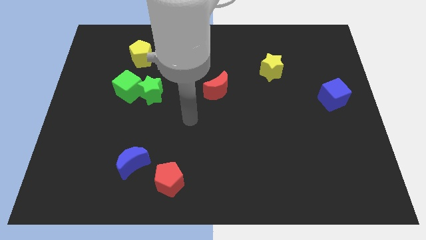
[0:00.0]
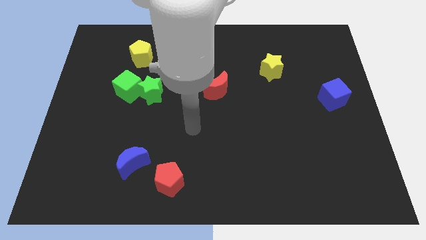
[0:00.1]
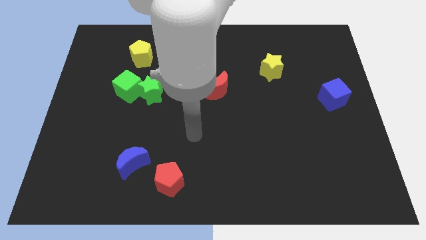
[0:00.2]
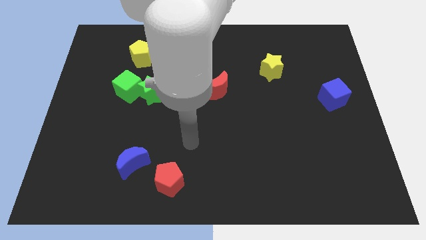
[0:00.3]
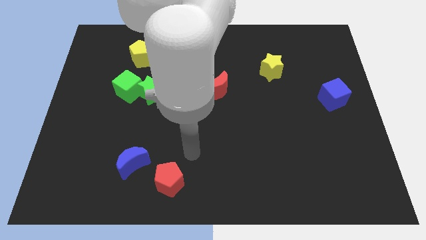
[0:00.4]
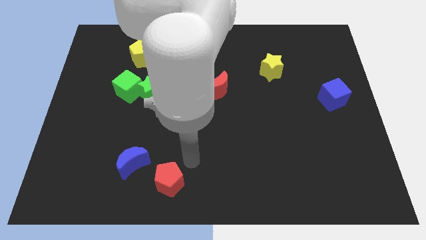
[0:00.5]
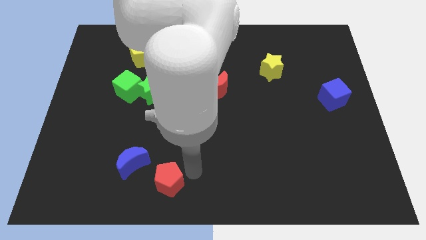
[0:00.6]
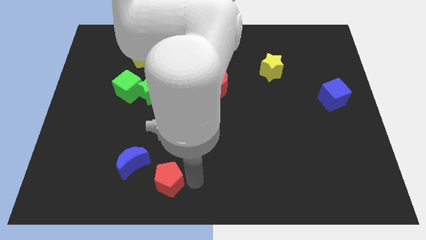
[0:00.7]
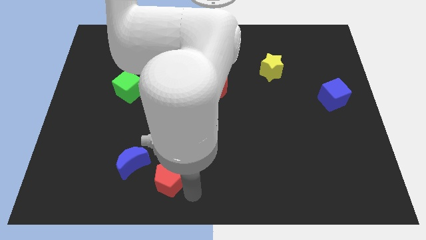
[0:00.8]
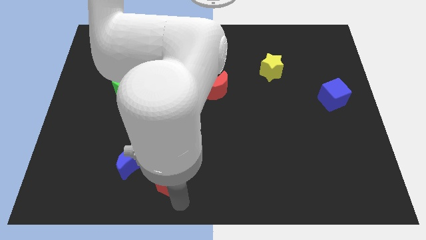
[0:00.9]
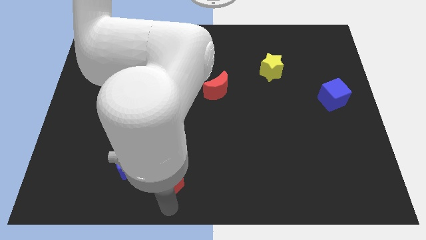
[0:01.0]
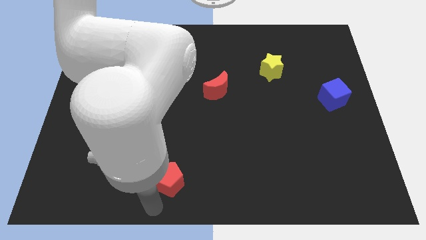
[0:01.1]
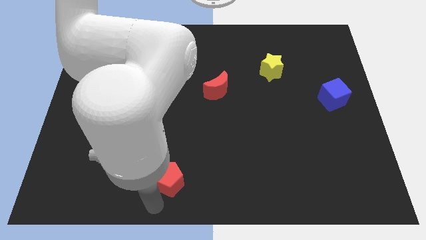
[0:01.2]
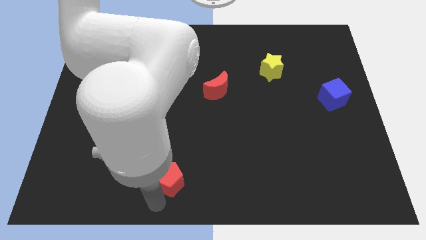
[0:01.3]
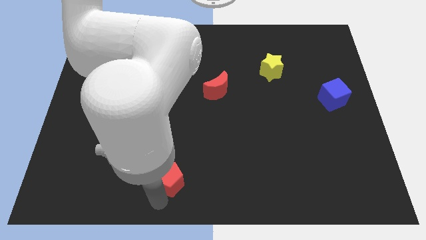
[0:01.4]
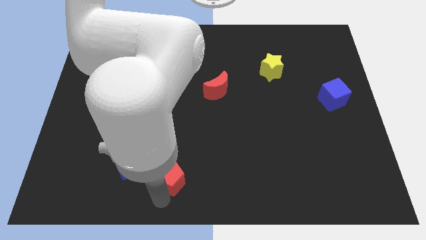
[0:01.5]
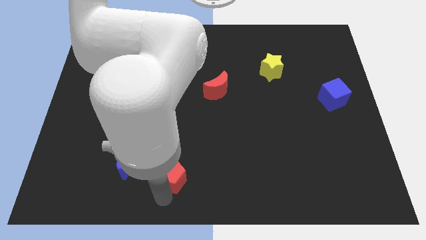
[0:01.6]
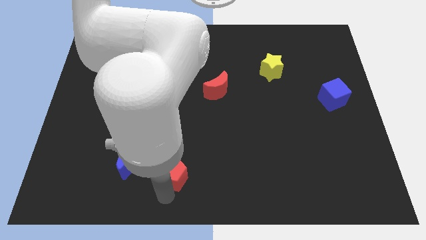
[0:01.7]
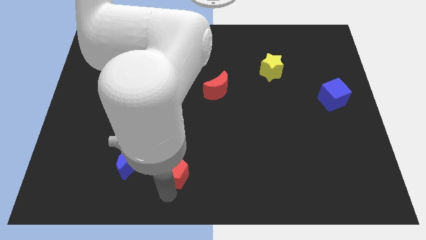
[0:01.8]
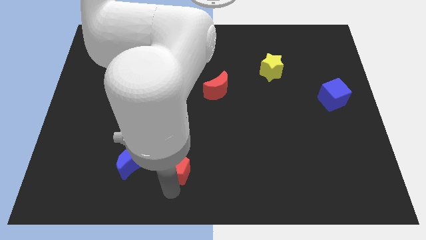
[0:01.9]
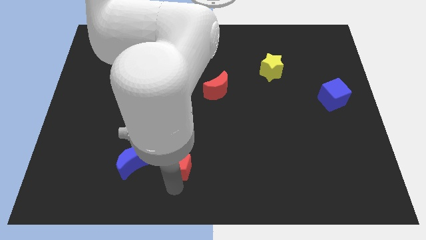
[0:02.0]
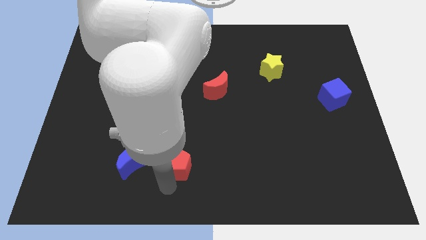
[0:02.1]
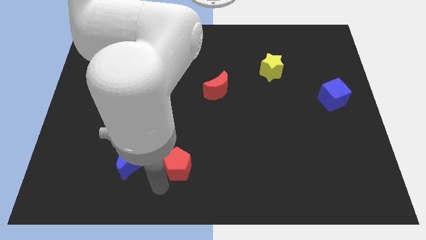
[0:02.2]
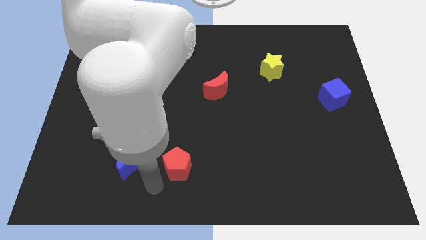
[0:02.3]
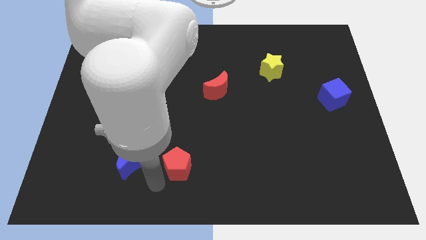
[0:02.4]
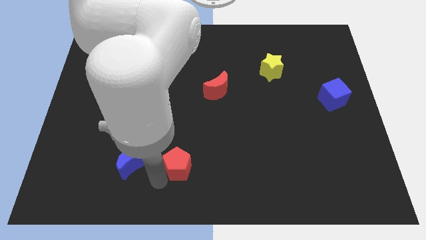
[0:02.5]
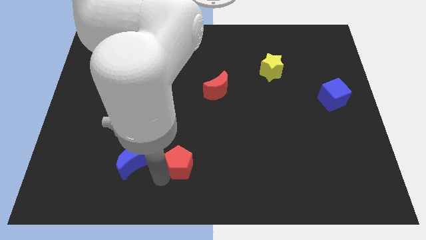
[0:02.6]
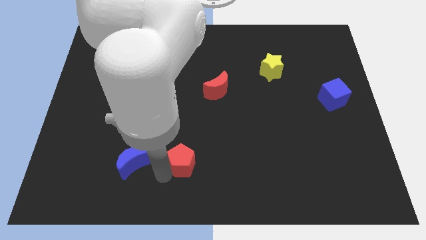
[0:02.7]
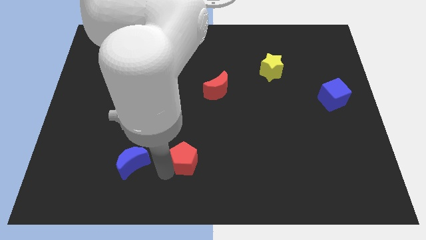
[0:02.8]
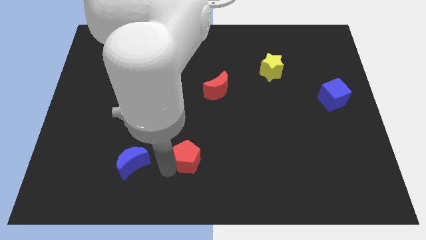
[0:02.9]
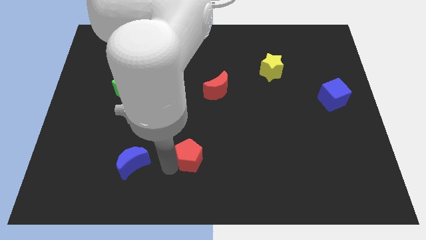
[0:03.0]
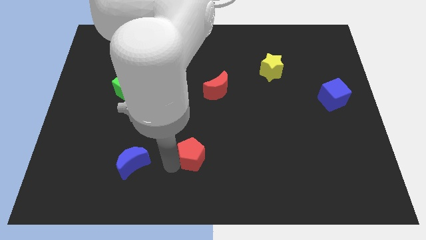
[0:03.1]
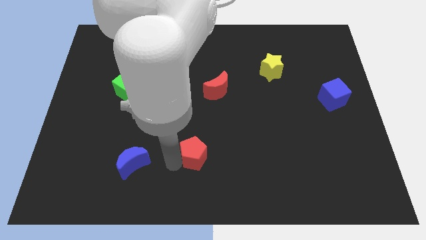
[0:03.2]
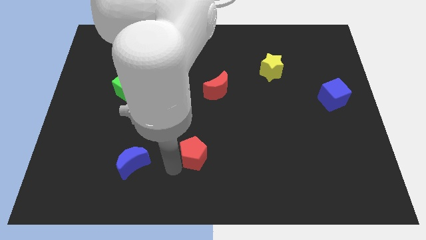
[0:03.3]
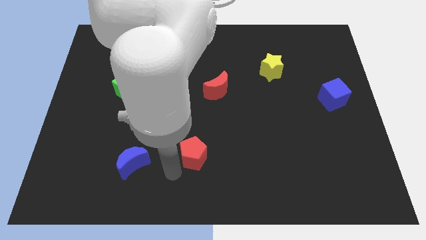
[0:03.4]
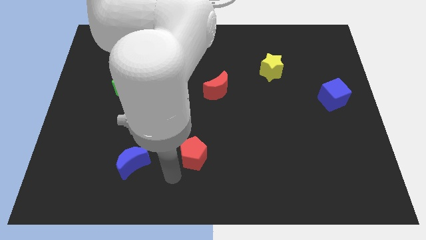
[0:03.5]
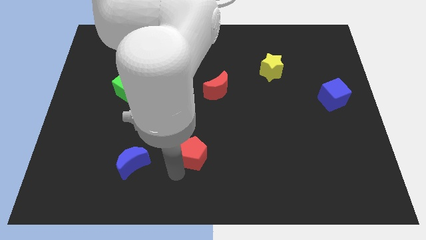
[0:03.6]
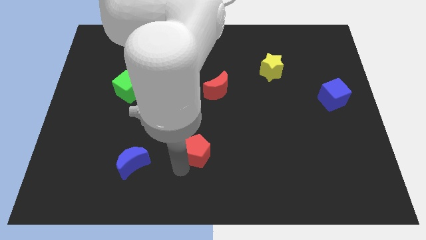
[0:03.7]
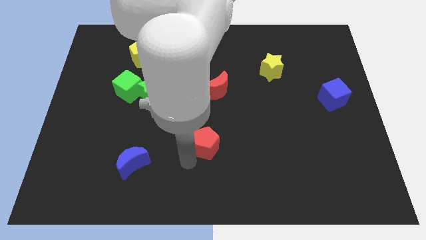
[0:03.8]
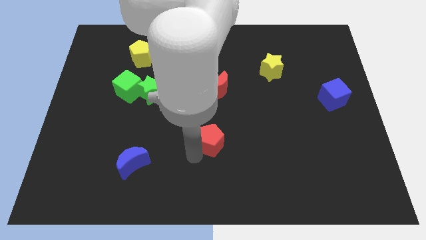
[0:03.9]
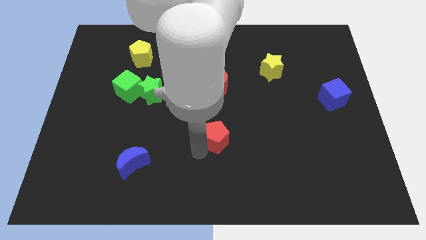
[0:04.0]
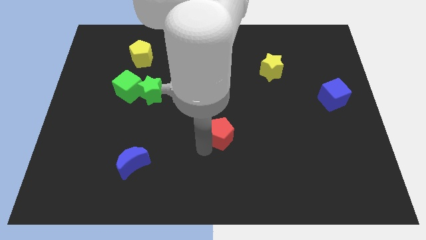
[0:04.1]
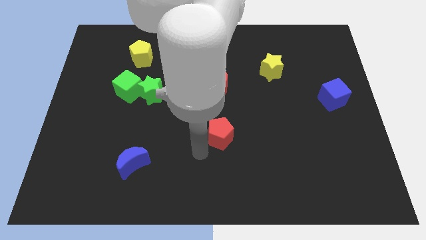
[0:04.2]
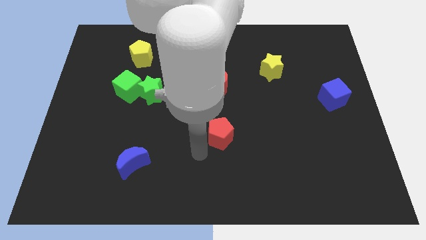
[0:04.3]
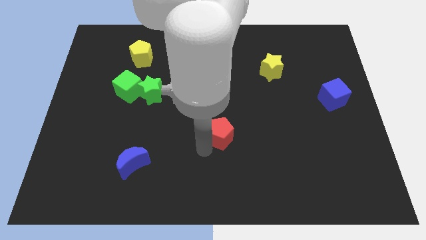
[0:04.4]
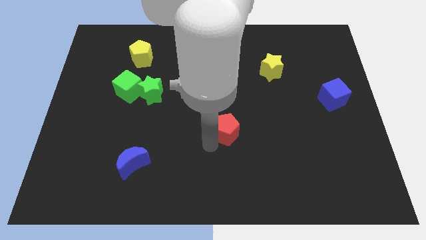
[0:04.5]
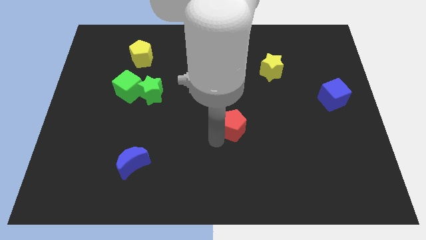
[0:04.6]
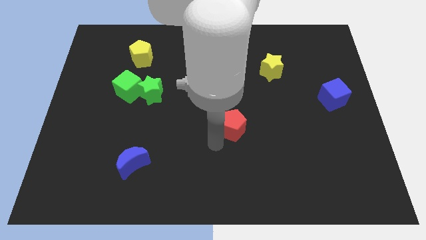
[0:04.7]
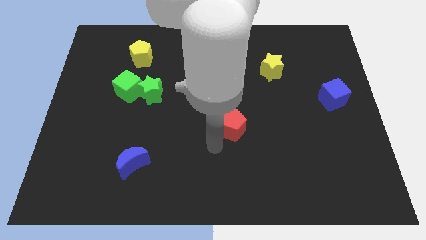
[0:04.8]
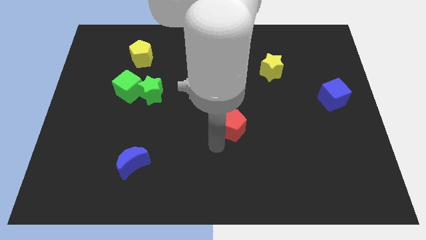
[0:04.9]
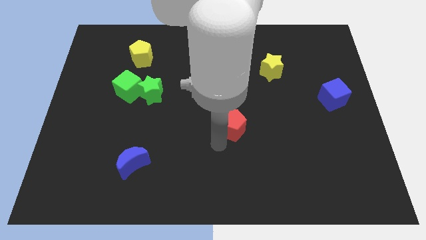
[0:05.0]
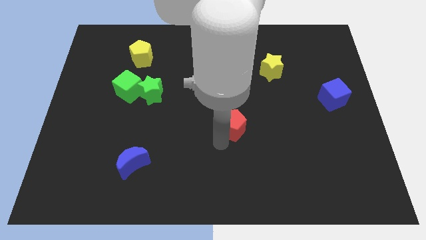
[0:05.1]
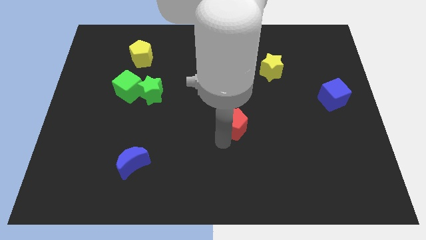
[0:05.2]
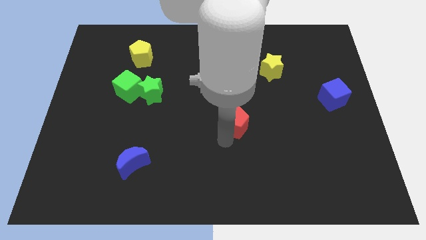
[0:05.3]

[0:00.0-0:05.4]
push the red pentagon upwards and then right

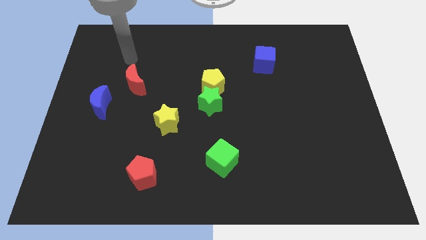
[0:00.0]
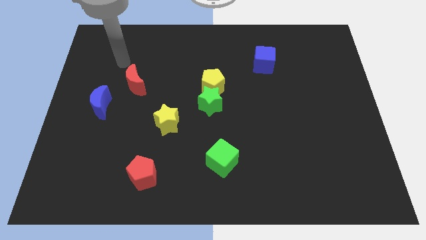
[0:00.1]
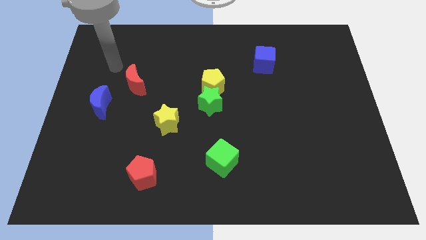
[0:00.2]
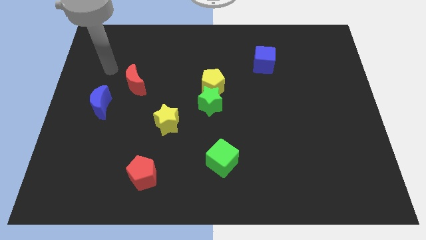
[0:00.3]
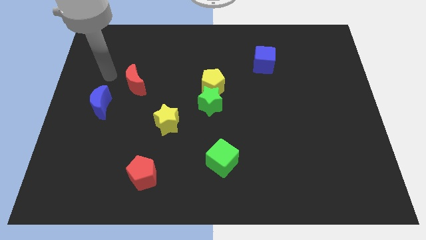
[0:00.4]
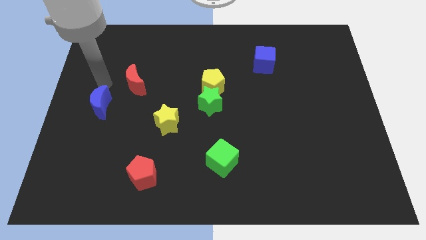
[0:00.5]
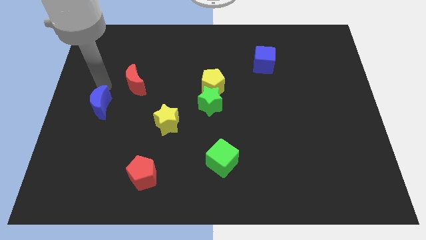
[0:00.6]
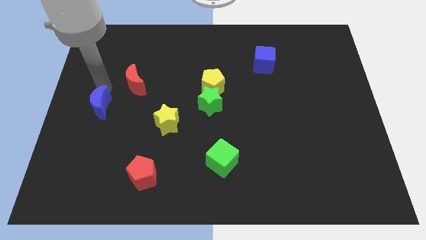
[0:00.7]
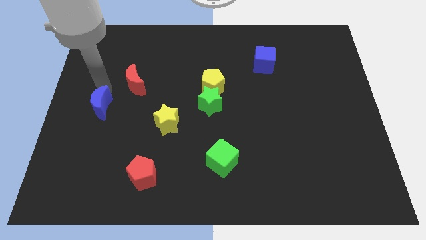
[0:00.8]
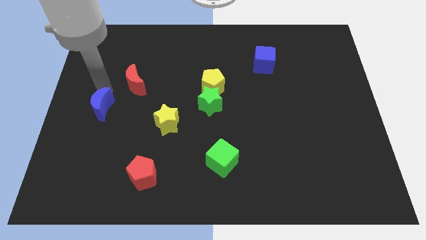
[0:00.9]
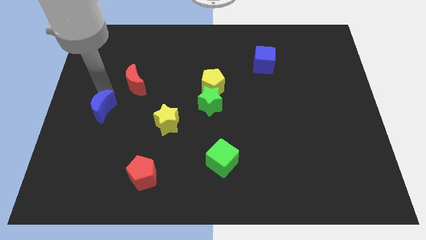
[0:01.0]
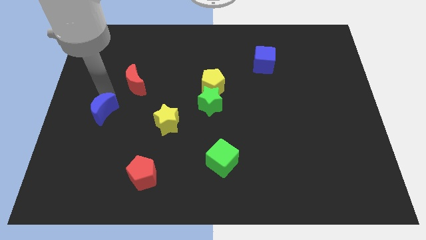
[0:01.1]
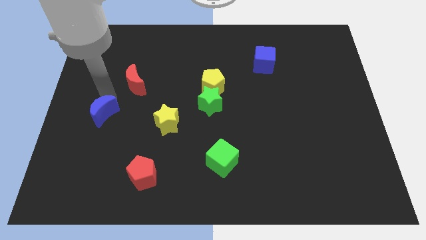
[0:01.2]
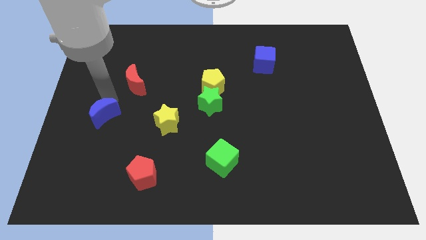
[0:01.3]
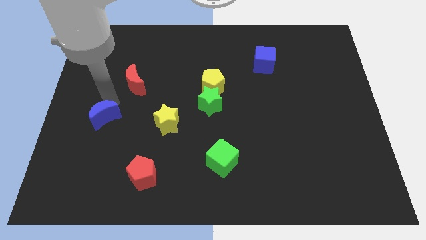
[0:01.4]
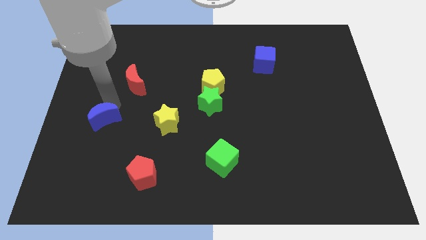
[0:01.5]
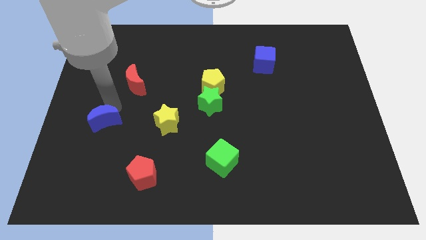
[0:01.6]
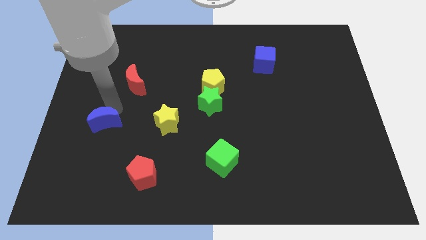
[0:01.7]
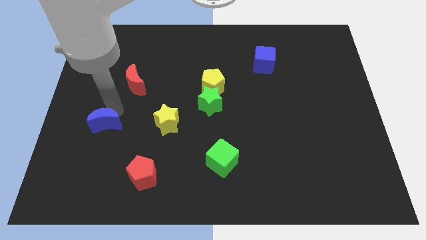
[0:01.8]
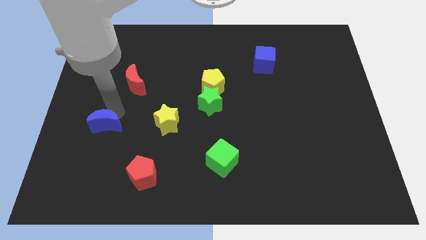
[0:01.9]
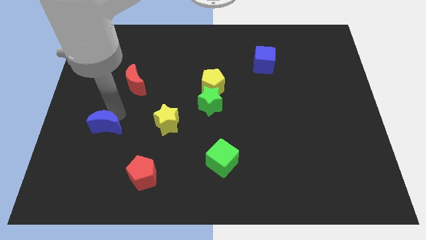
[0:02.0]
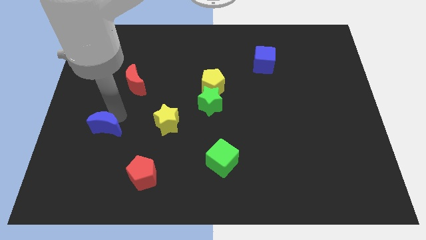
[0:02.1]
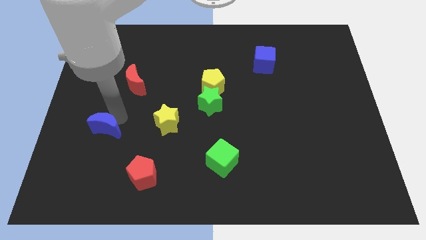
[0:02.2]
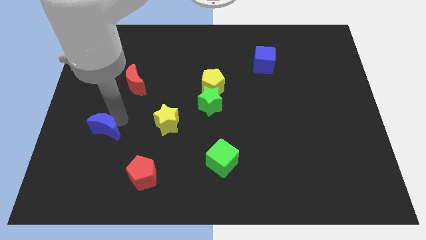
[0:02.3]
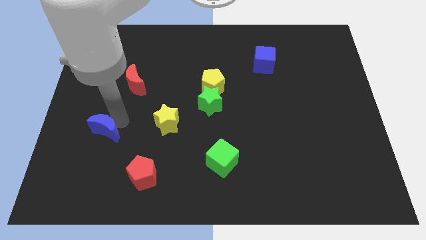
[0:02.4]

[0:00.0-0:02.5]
push the blue moon downwards slightly
